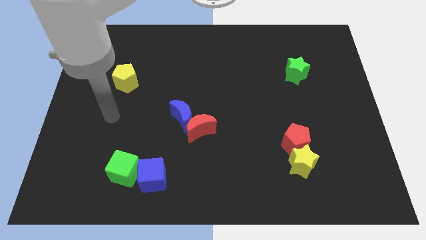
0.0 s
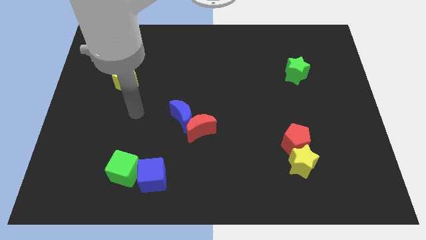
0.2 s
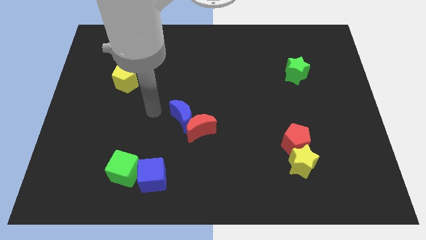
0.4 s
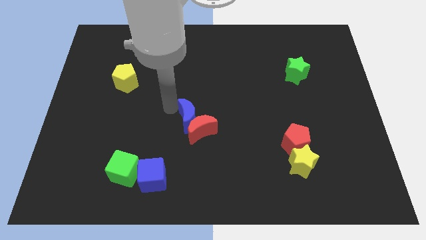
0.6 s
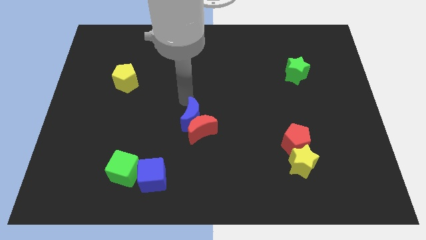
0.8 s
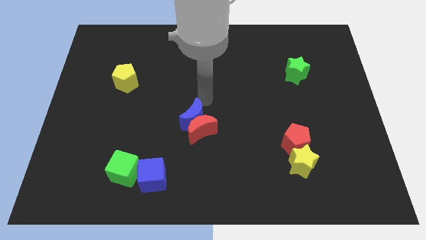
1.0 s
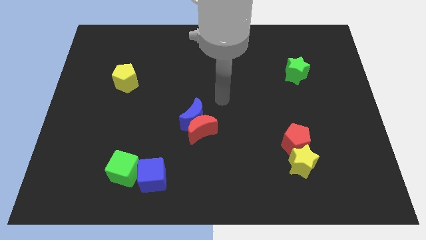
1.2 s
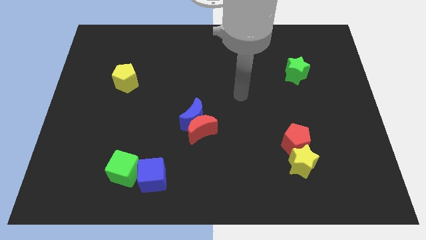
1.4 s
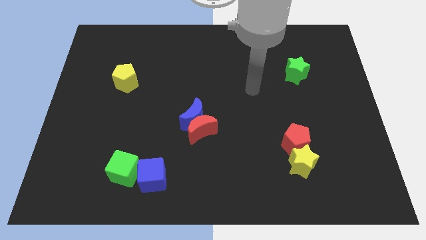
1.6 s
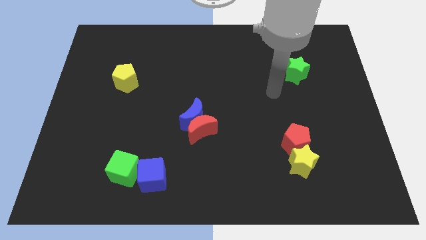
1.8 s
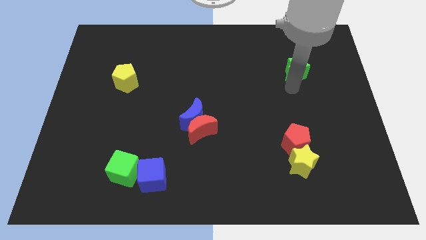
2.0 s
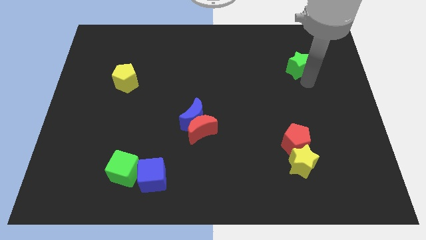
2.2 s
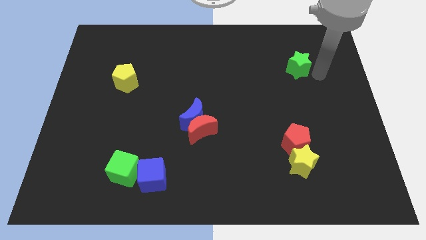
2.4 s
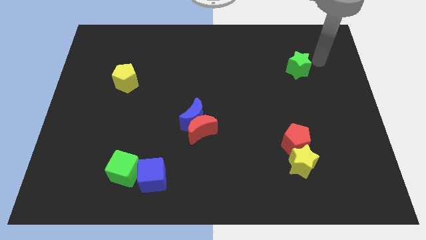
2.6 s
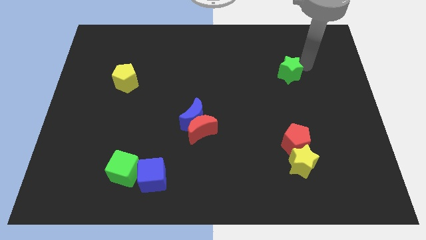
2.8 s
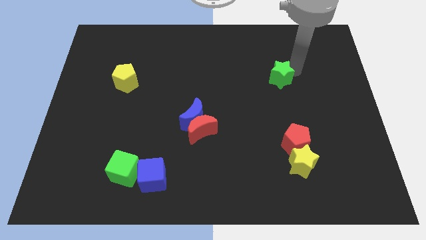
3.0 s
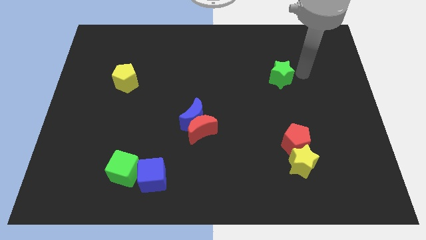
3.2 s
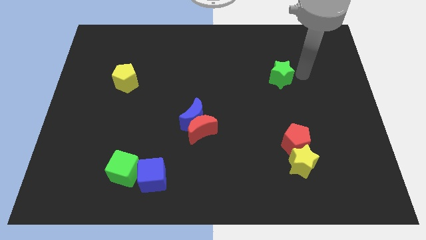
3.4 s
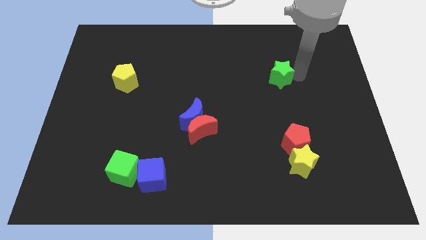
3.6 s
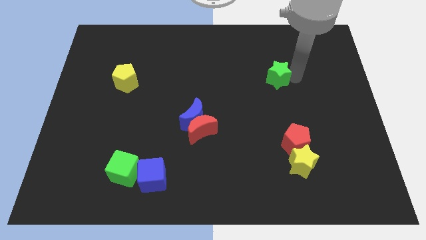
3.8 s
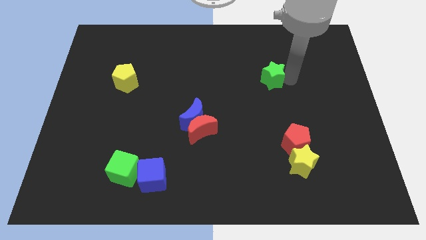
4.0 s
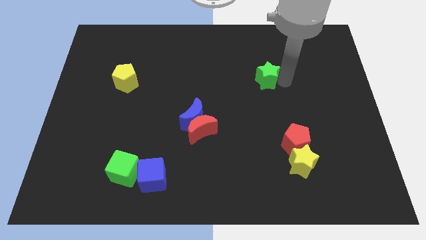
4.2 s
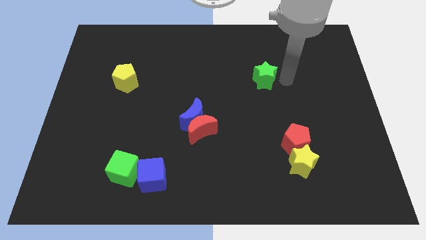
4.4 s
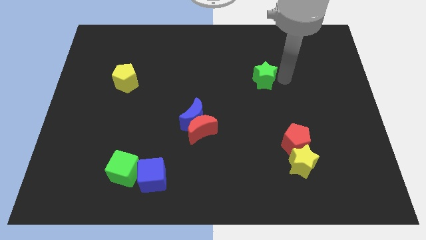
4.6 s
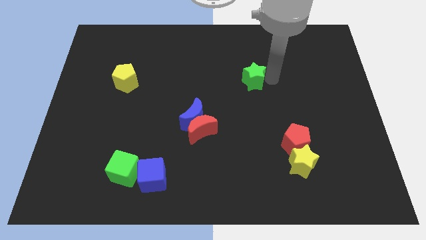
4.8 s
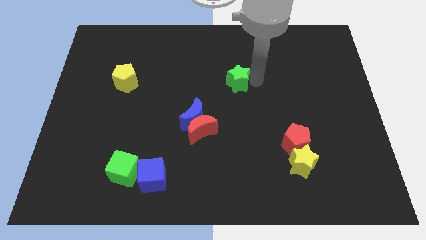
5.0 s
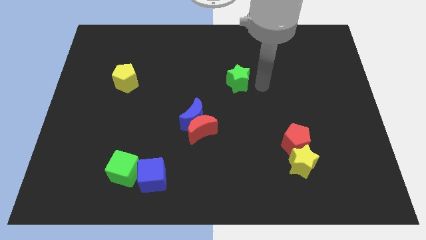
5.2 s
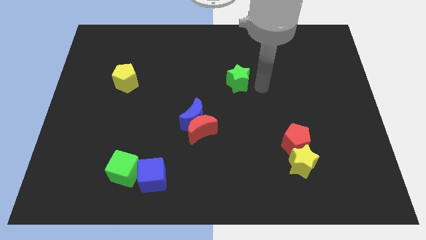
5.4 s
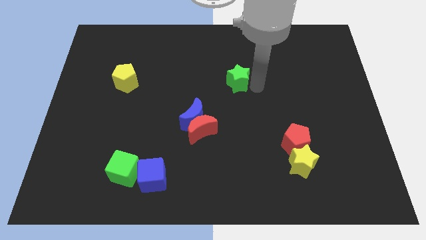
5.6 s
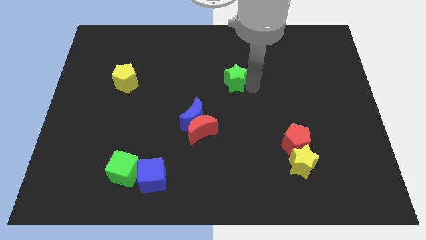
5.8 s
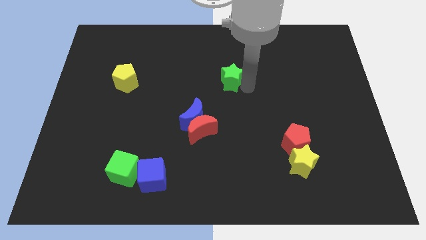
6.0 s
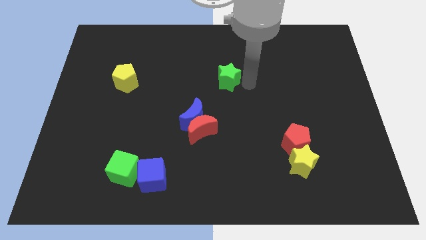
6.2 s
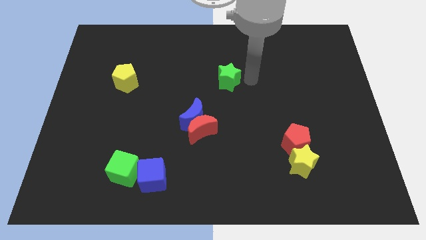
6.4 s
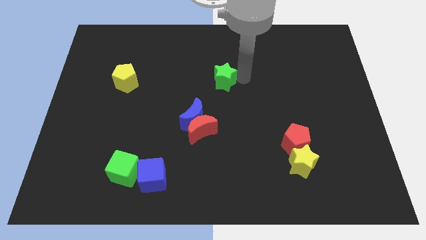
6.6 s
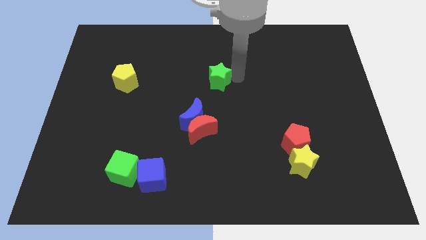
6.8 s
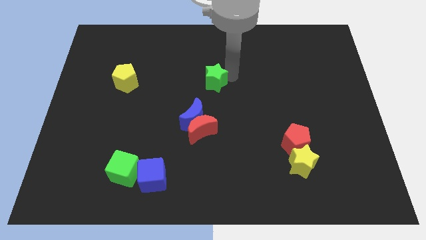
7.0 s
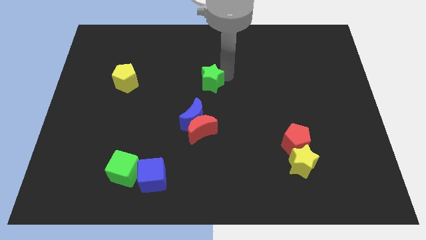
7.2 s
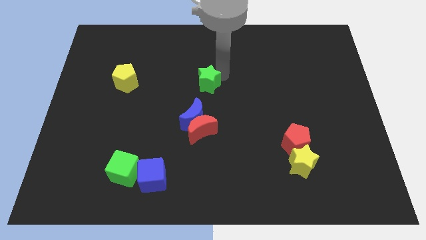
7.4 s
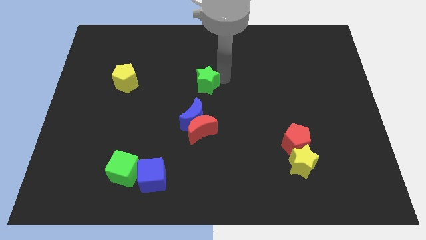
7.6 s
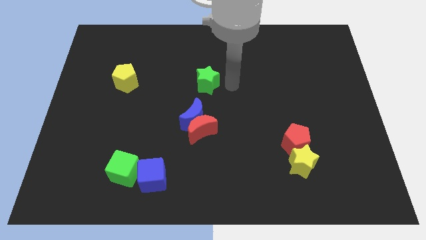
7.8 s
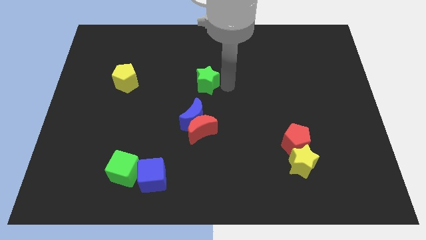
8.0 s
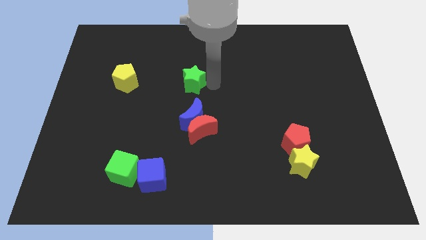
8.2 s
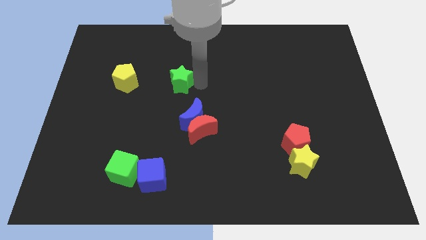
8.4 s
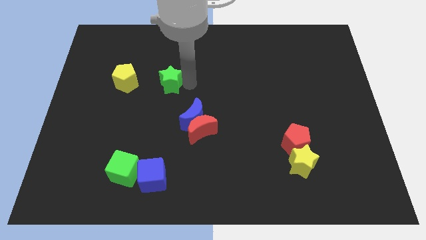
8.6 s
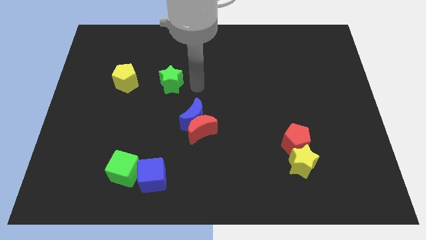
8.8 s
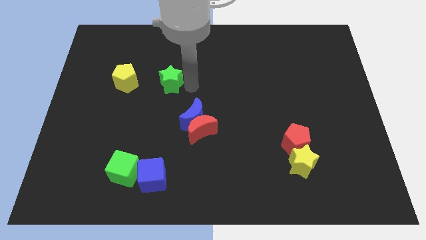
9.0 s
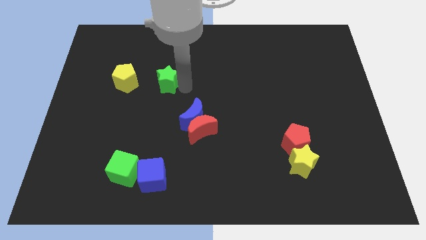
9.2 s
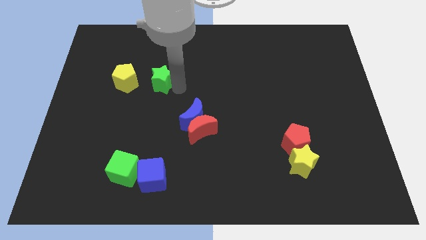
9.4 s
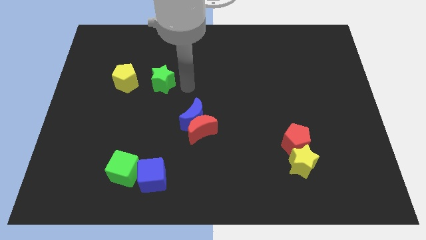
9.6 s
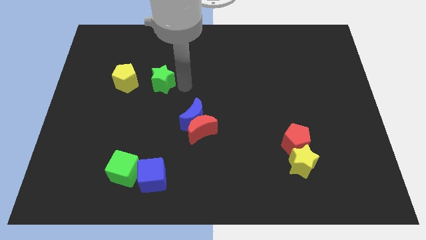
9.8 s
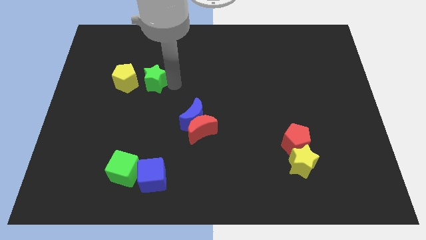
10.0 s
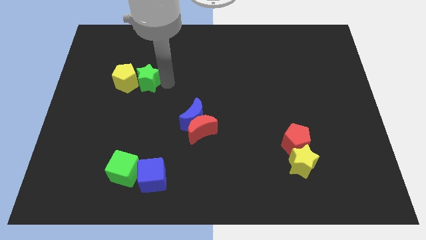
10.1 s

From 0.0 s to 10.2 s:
slide the green star close to the yellow pentagon

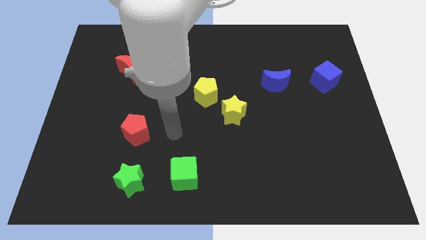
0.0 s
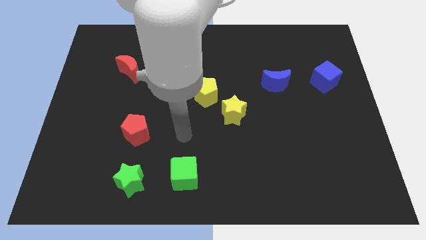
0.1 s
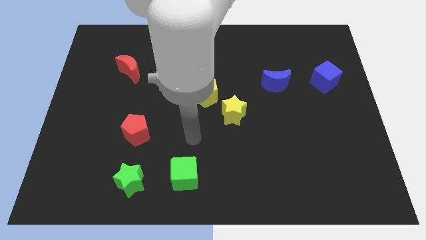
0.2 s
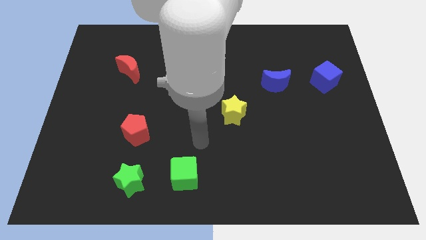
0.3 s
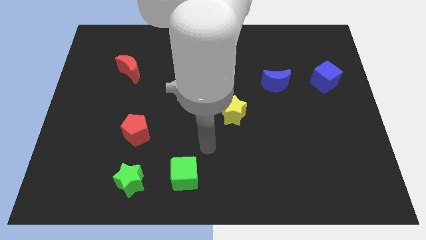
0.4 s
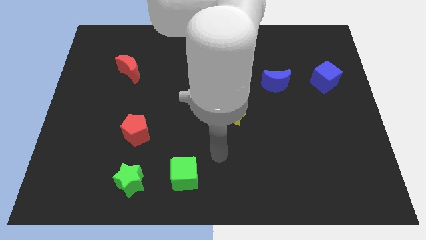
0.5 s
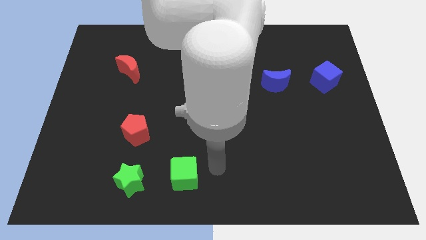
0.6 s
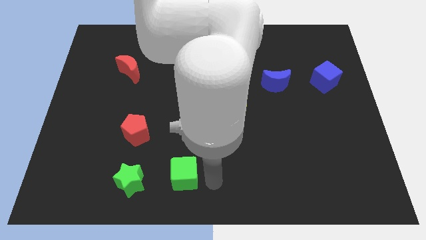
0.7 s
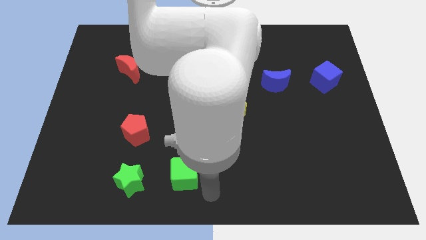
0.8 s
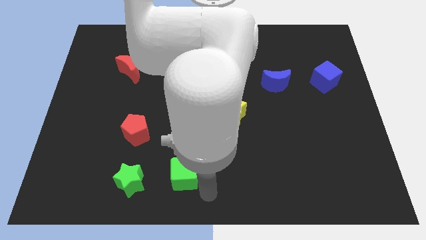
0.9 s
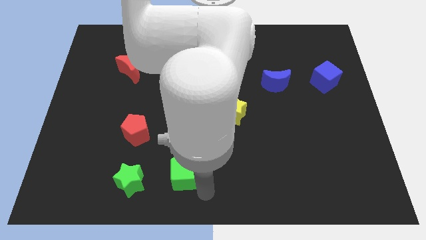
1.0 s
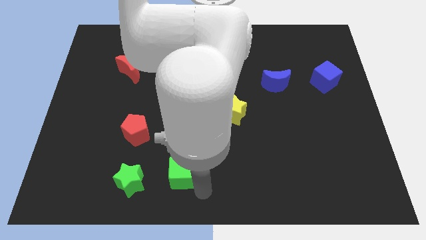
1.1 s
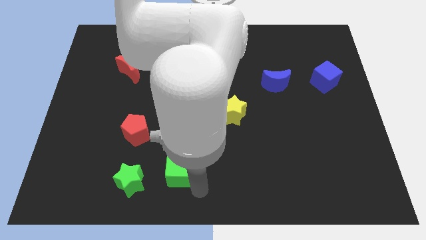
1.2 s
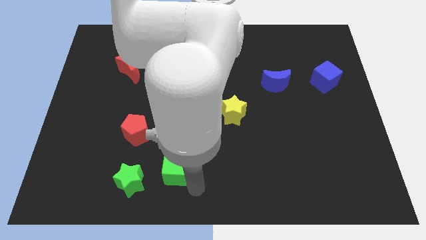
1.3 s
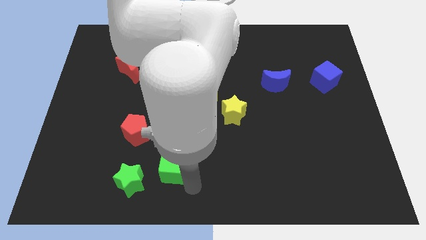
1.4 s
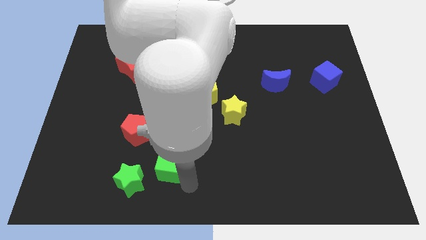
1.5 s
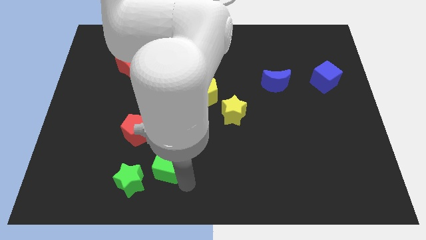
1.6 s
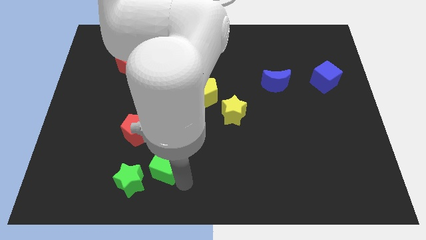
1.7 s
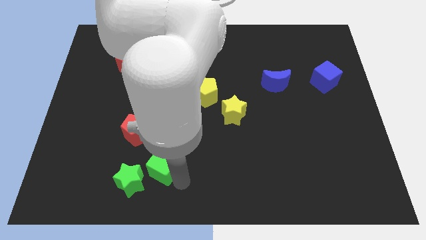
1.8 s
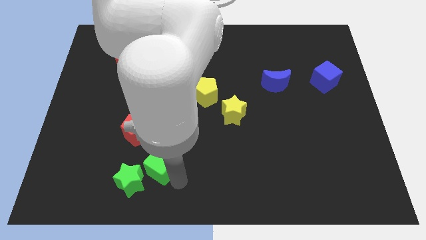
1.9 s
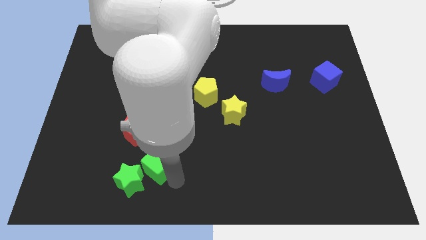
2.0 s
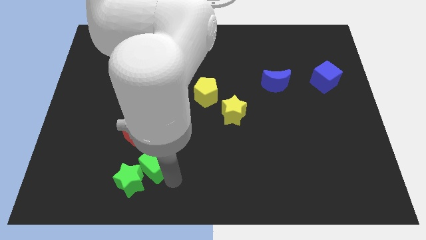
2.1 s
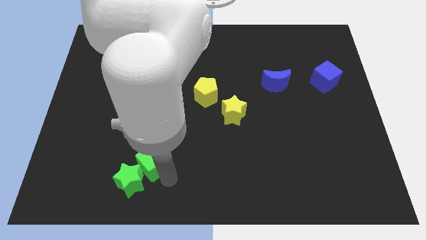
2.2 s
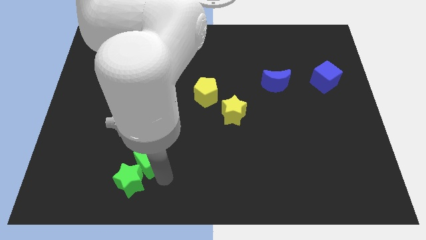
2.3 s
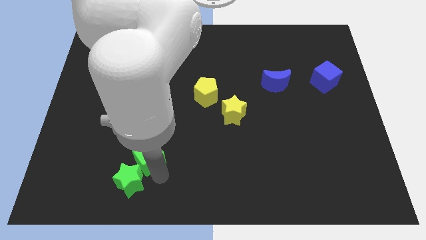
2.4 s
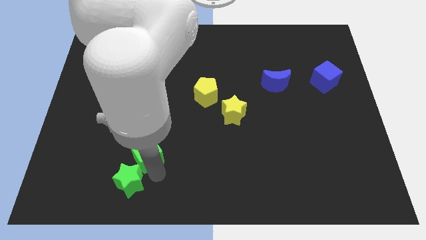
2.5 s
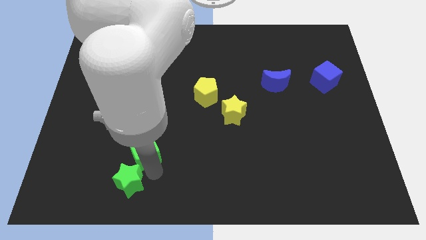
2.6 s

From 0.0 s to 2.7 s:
move the green cube close to the red pentagon
